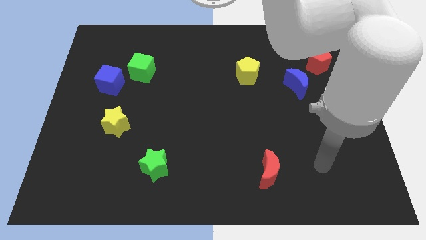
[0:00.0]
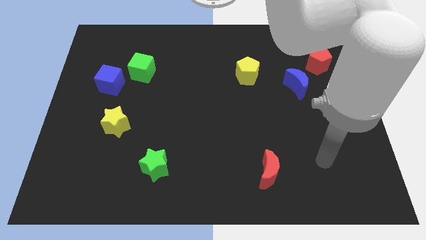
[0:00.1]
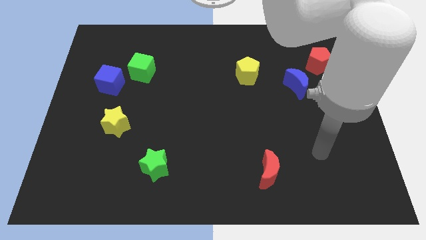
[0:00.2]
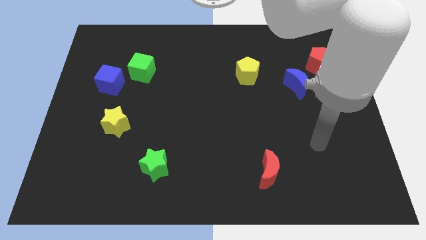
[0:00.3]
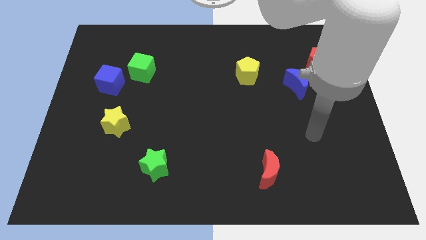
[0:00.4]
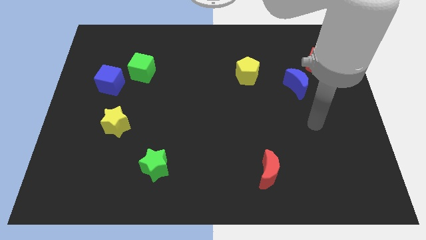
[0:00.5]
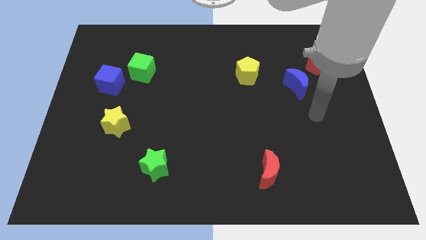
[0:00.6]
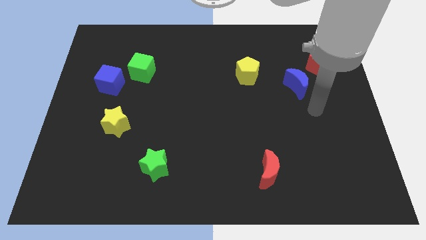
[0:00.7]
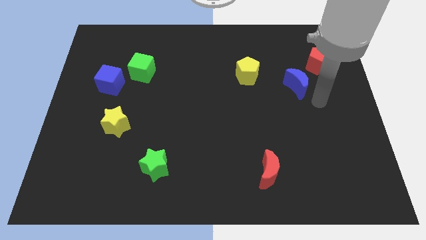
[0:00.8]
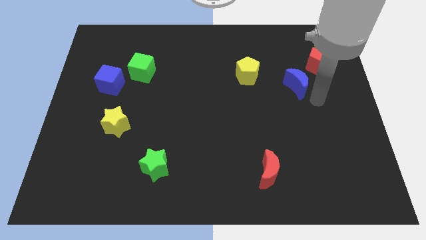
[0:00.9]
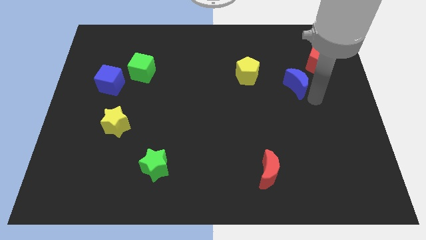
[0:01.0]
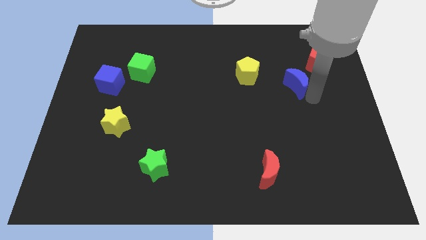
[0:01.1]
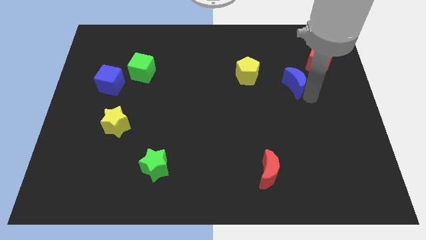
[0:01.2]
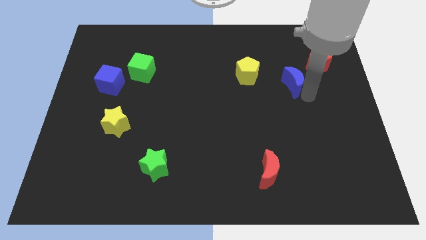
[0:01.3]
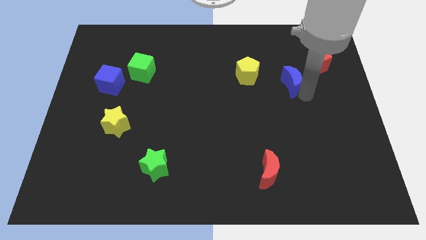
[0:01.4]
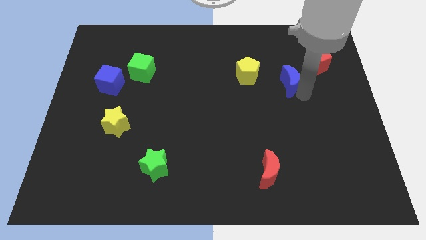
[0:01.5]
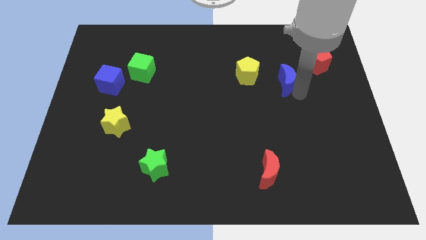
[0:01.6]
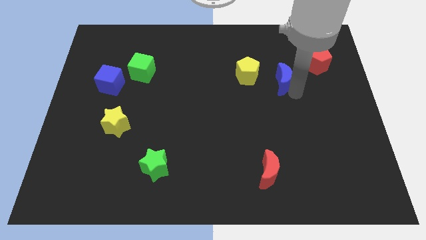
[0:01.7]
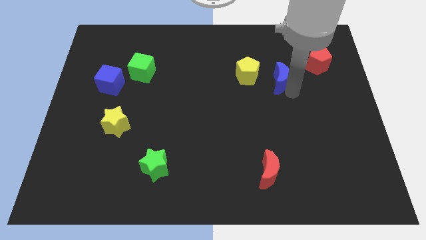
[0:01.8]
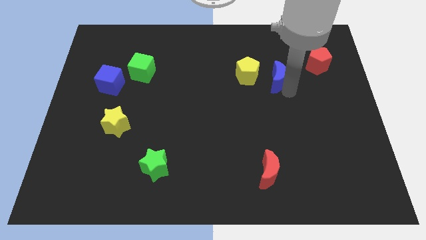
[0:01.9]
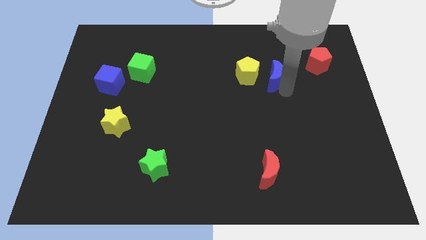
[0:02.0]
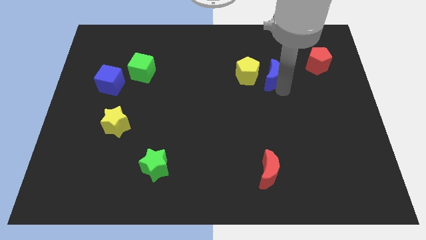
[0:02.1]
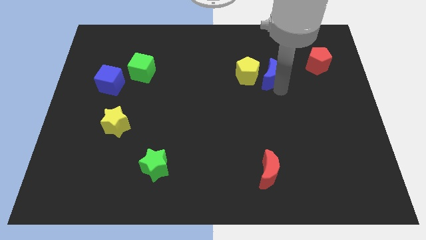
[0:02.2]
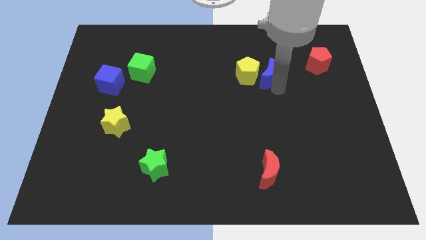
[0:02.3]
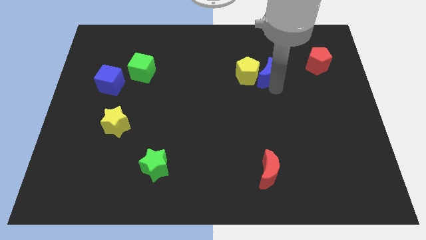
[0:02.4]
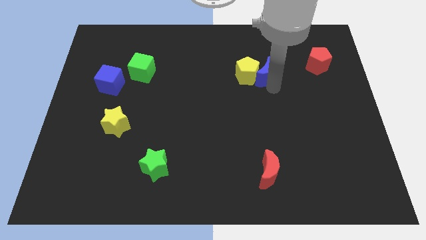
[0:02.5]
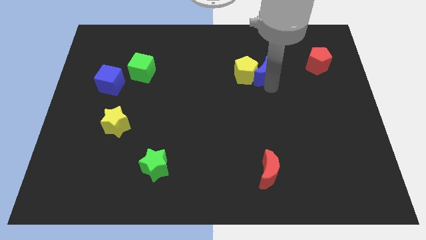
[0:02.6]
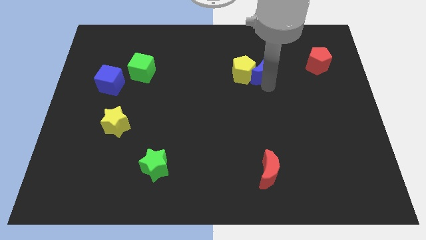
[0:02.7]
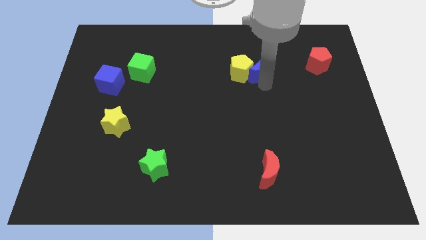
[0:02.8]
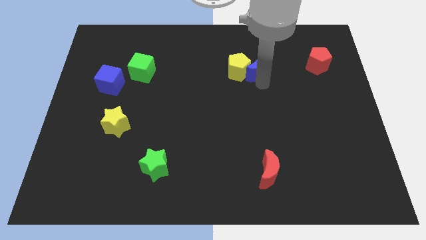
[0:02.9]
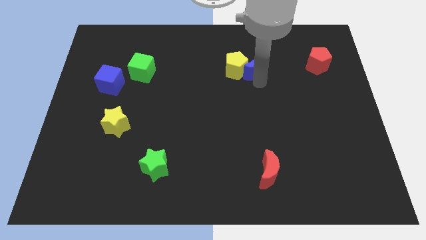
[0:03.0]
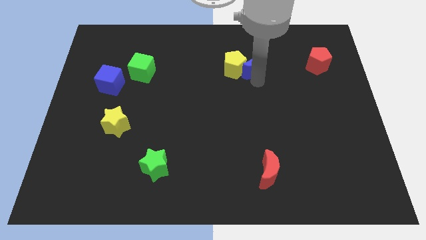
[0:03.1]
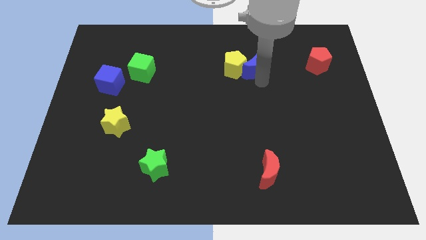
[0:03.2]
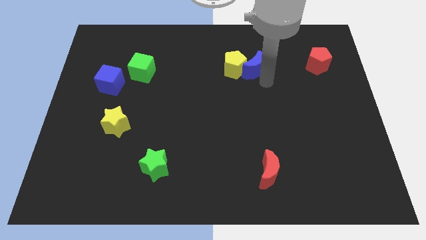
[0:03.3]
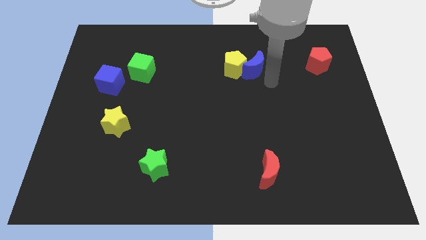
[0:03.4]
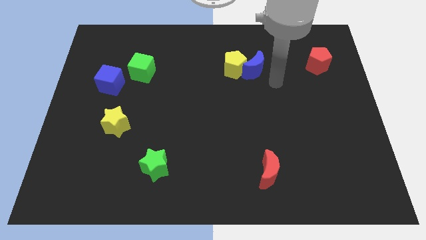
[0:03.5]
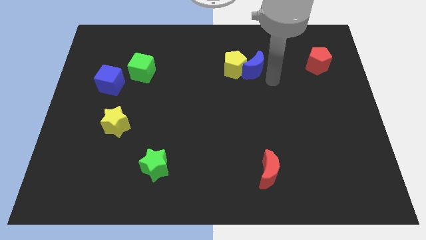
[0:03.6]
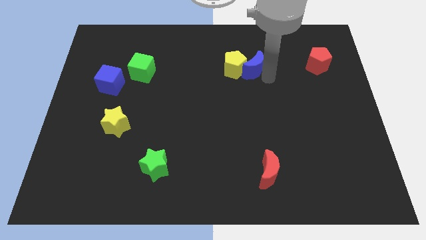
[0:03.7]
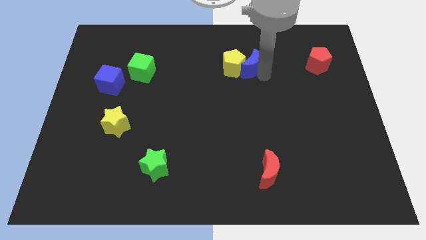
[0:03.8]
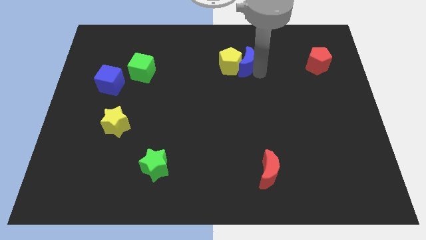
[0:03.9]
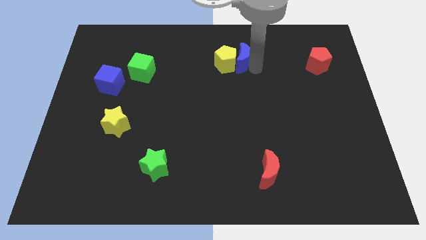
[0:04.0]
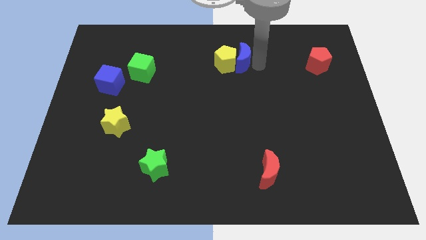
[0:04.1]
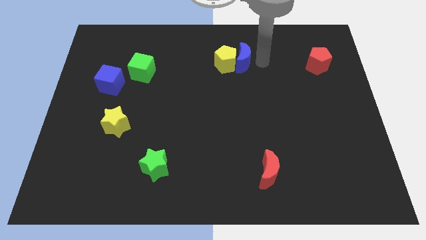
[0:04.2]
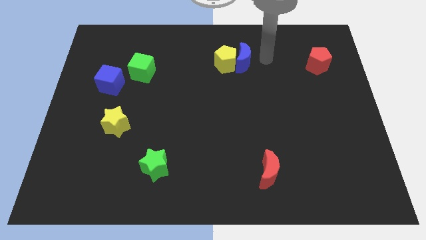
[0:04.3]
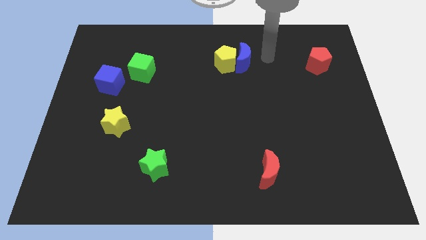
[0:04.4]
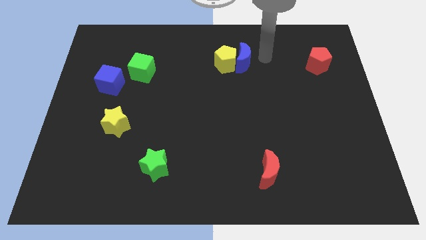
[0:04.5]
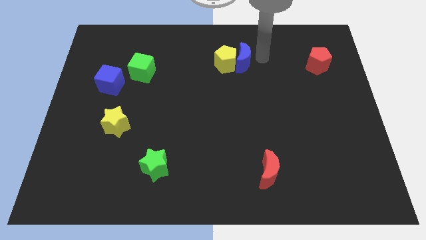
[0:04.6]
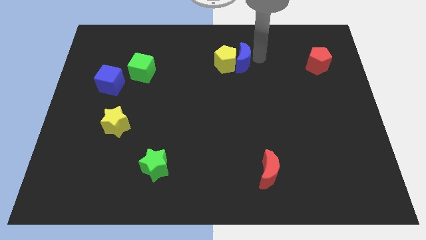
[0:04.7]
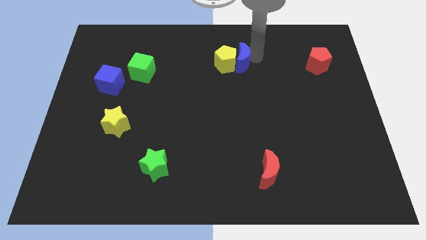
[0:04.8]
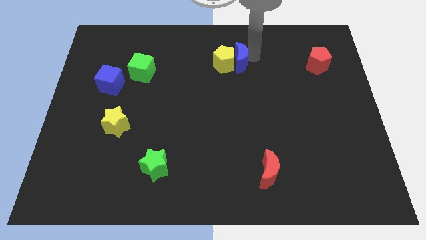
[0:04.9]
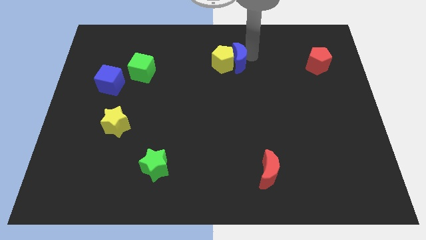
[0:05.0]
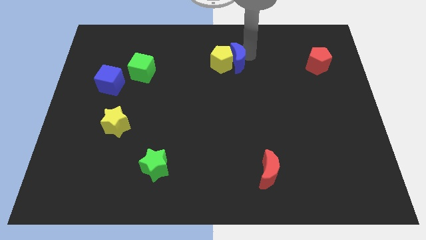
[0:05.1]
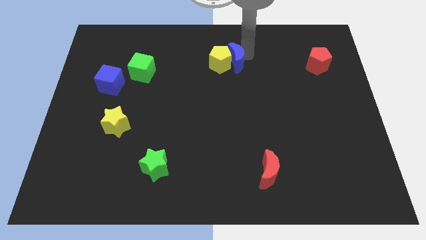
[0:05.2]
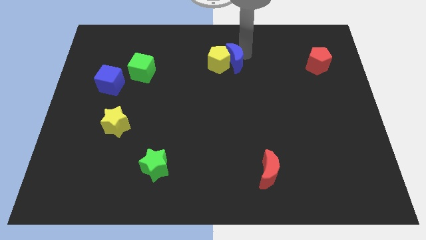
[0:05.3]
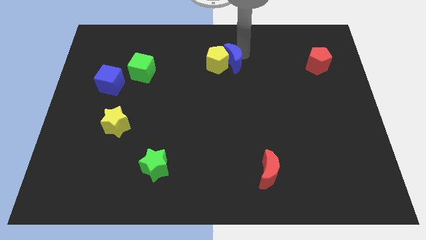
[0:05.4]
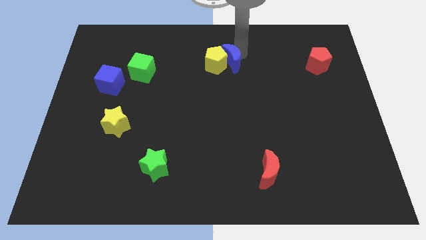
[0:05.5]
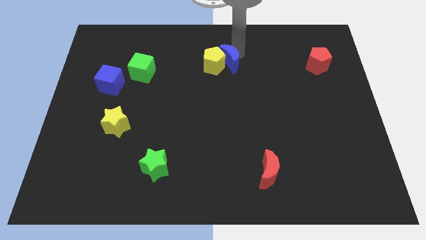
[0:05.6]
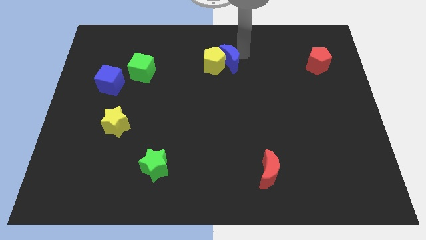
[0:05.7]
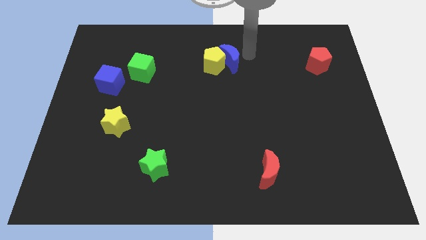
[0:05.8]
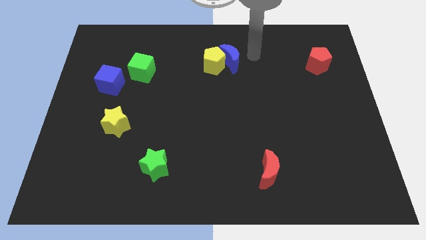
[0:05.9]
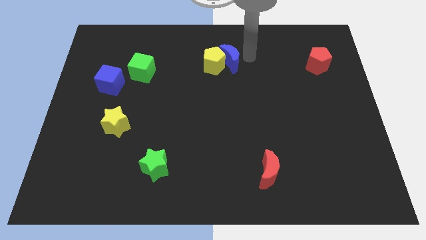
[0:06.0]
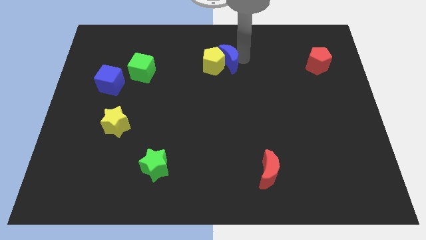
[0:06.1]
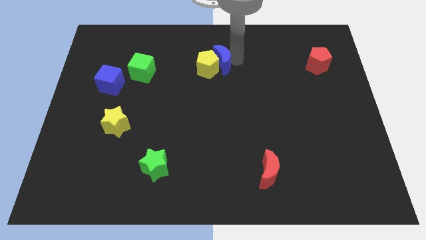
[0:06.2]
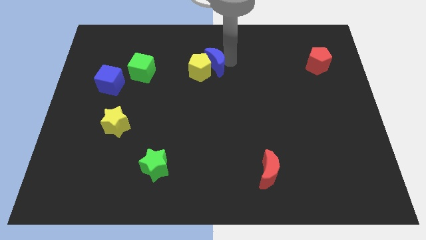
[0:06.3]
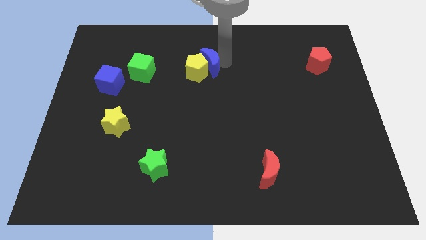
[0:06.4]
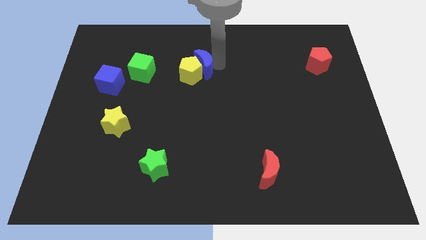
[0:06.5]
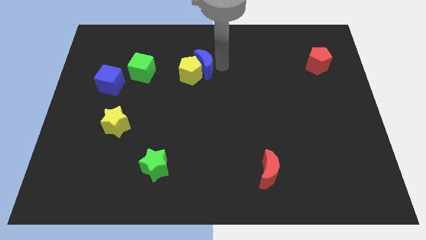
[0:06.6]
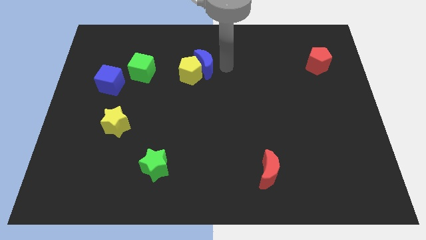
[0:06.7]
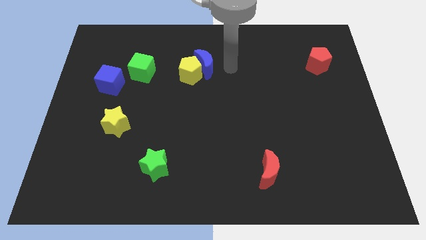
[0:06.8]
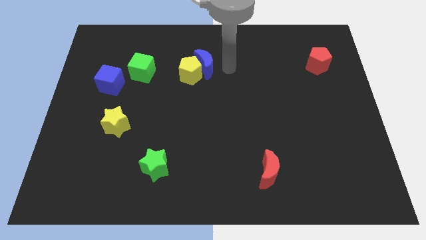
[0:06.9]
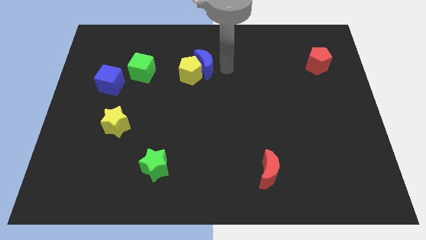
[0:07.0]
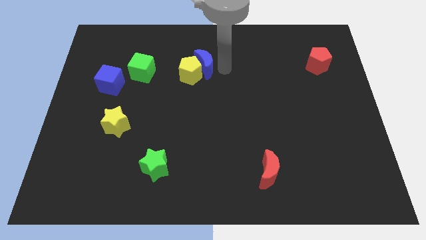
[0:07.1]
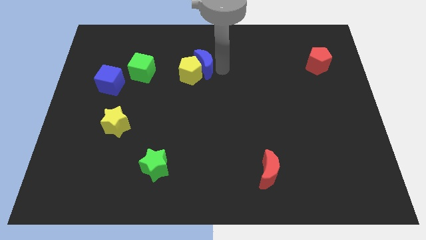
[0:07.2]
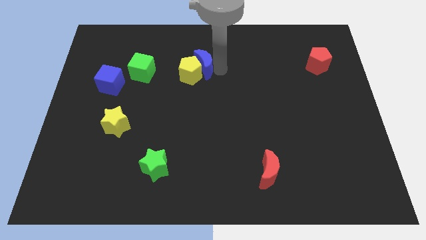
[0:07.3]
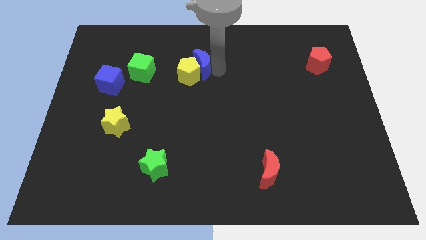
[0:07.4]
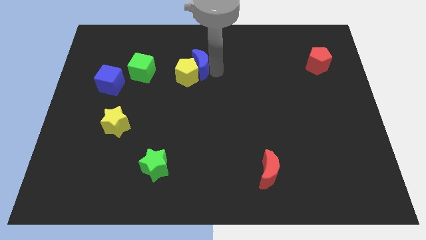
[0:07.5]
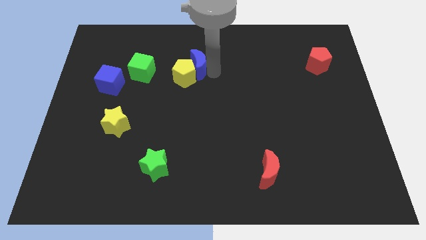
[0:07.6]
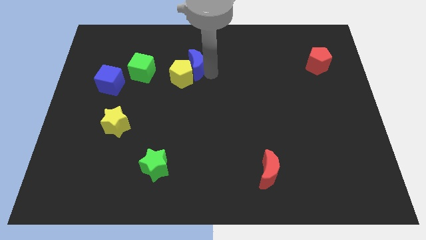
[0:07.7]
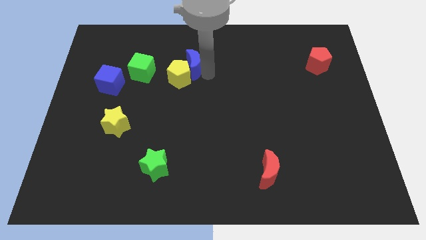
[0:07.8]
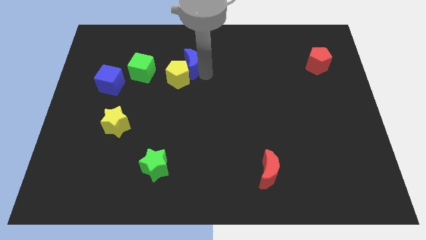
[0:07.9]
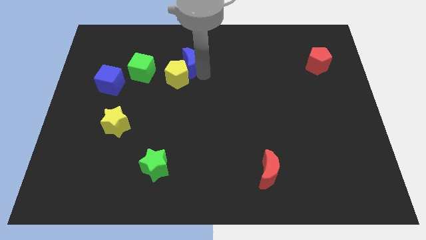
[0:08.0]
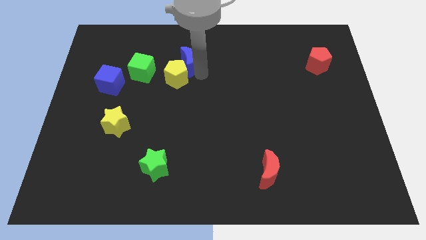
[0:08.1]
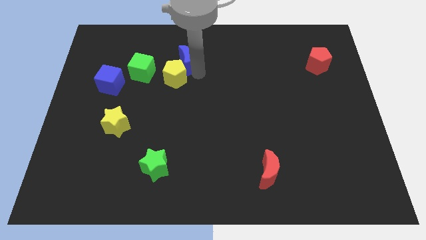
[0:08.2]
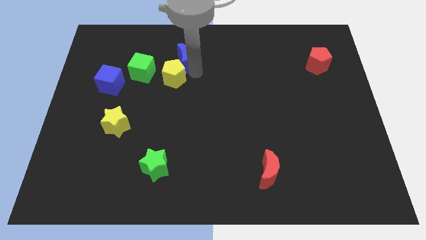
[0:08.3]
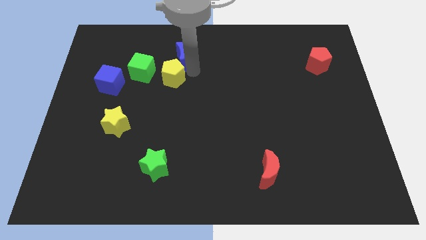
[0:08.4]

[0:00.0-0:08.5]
push the blue moon to the top right side of the green cube
